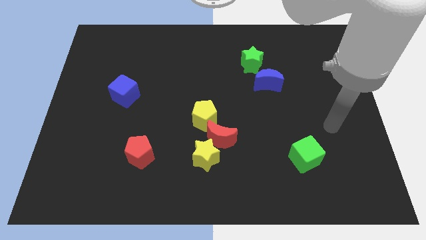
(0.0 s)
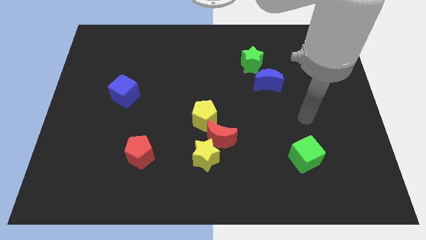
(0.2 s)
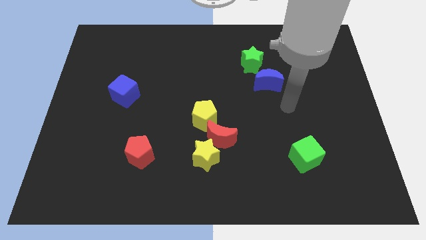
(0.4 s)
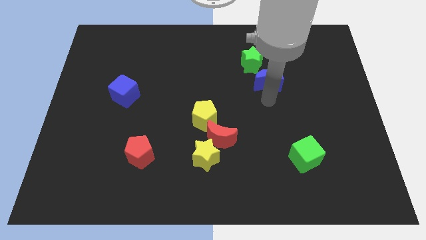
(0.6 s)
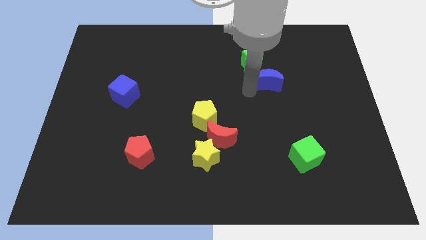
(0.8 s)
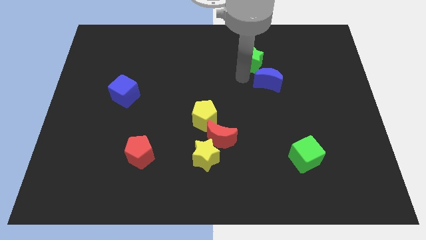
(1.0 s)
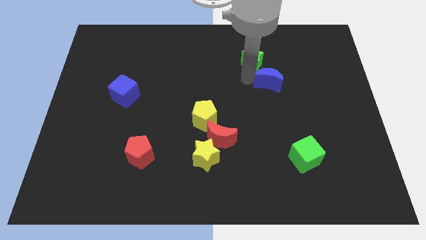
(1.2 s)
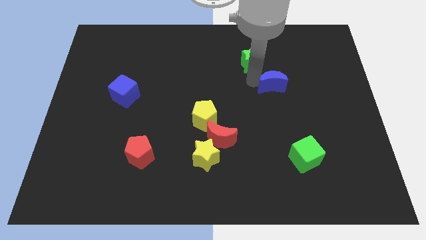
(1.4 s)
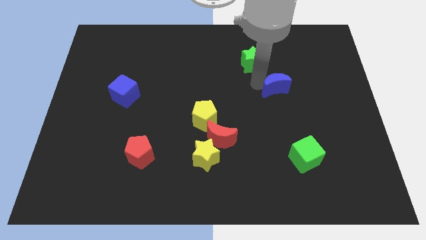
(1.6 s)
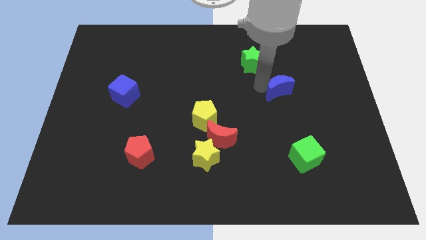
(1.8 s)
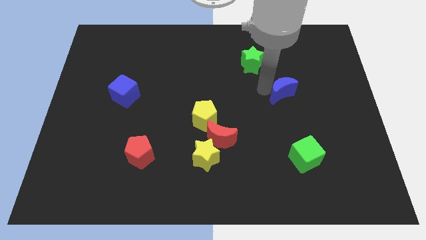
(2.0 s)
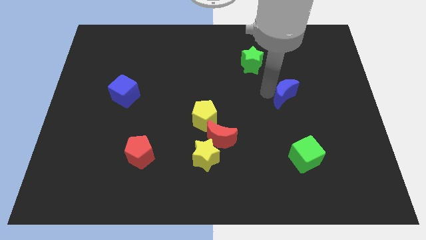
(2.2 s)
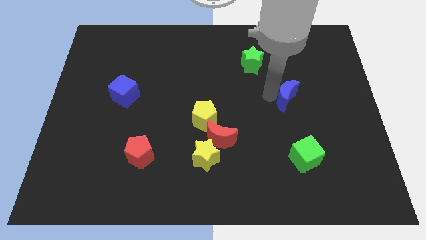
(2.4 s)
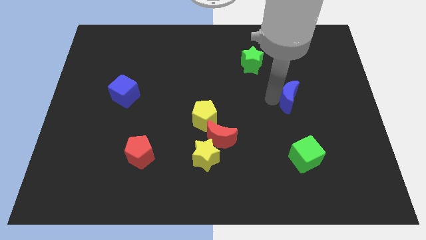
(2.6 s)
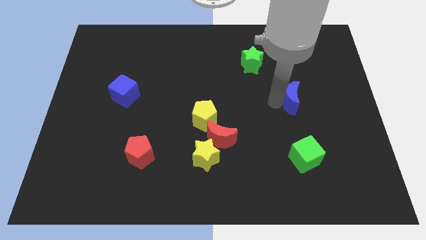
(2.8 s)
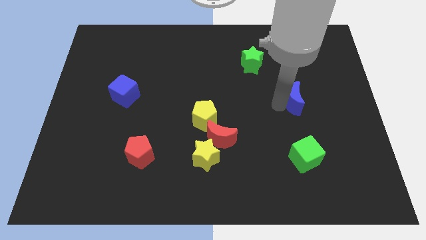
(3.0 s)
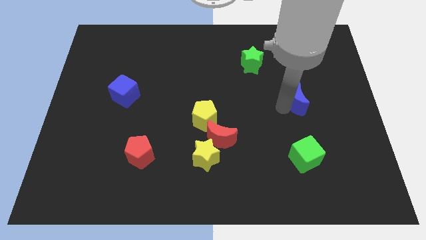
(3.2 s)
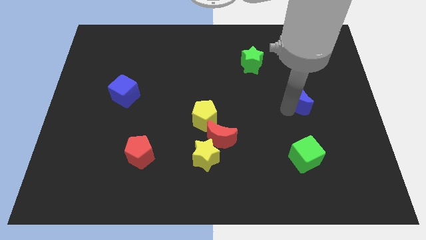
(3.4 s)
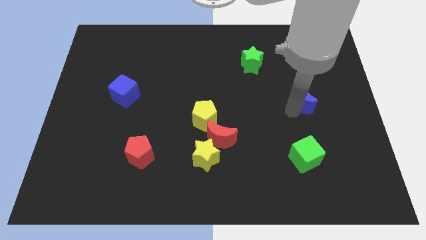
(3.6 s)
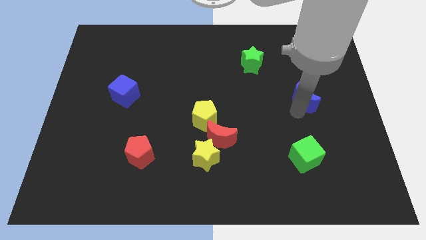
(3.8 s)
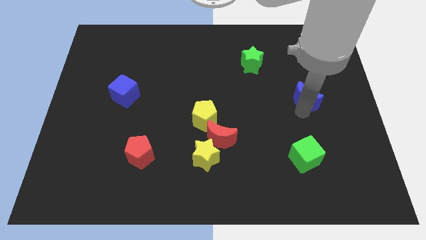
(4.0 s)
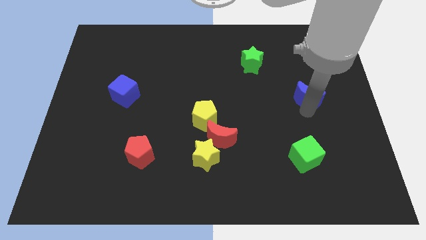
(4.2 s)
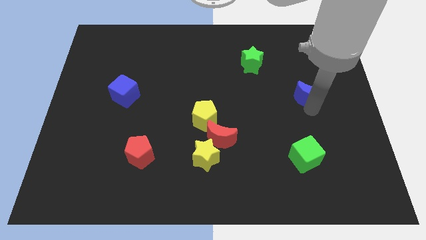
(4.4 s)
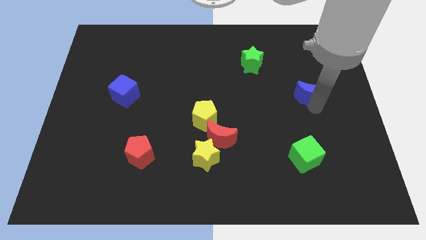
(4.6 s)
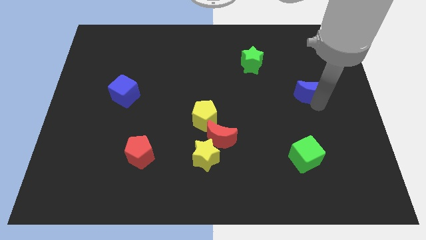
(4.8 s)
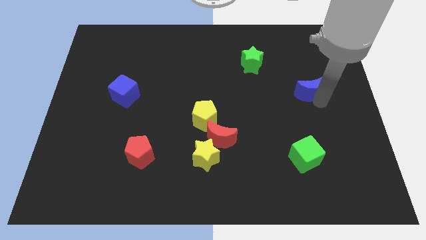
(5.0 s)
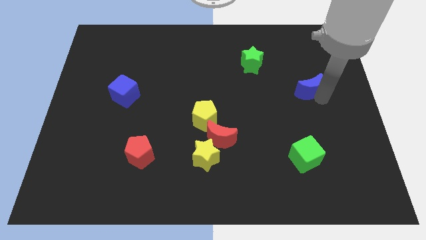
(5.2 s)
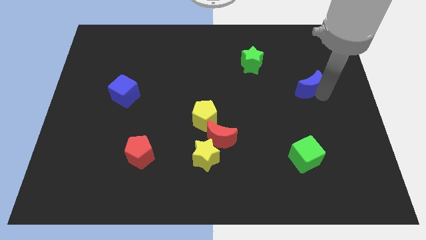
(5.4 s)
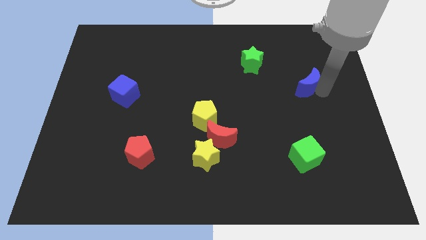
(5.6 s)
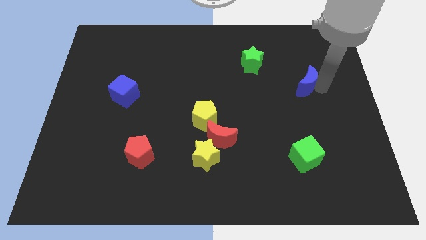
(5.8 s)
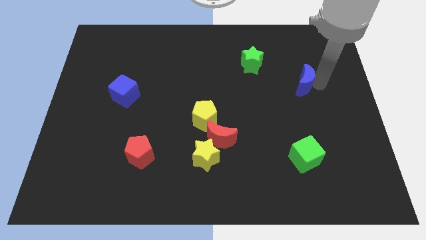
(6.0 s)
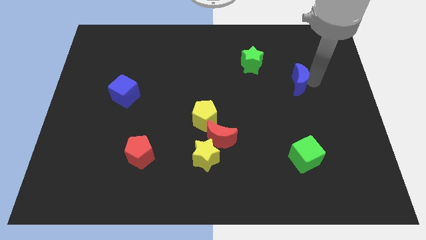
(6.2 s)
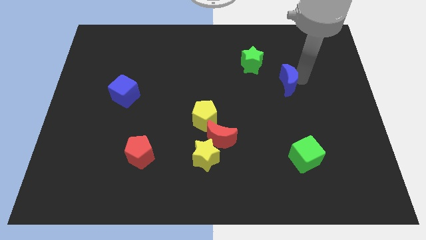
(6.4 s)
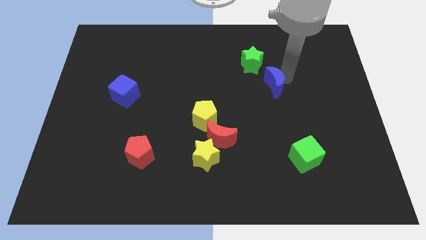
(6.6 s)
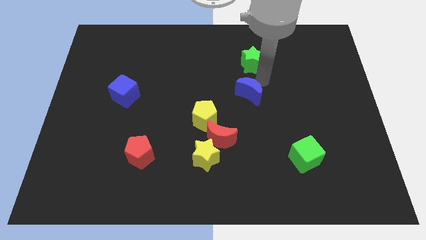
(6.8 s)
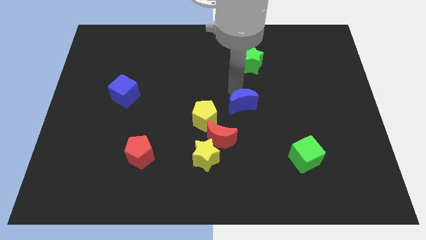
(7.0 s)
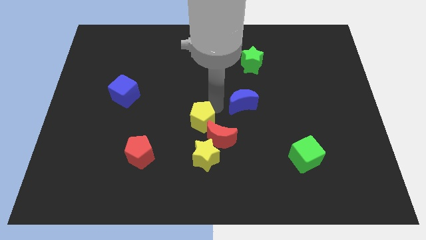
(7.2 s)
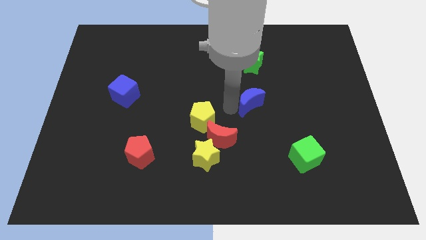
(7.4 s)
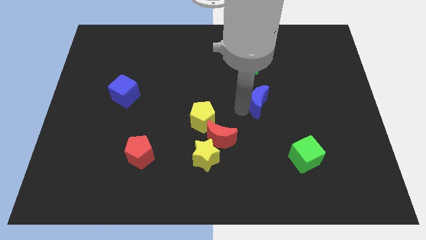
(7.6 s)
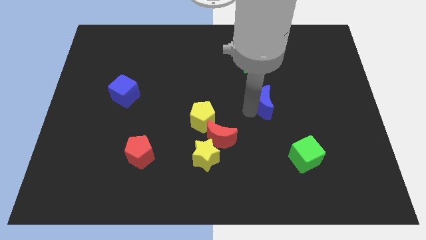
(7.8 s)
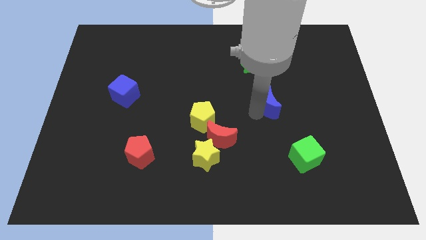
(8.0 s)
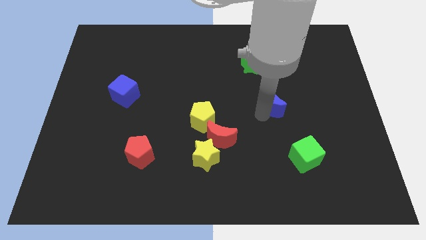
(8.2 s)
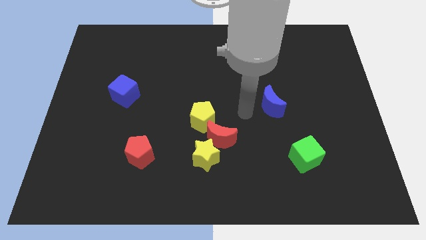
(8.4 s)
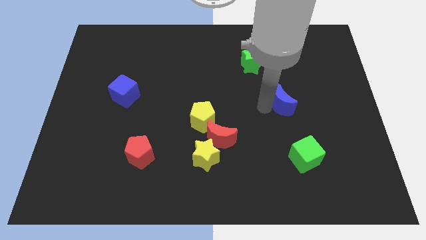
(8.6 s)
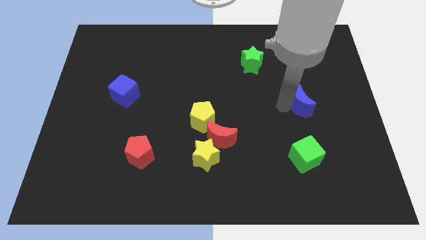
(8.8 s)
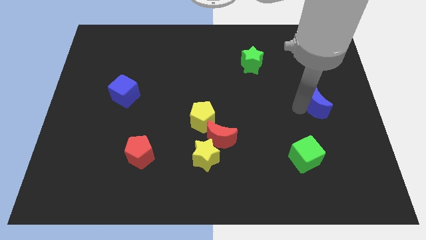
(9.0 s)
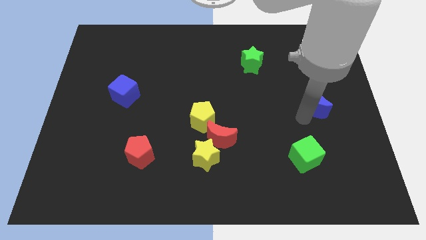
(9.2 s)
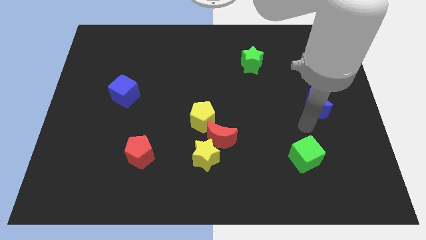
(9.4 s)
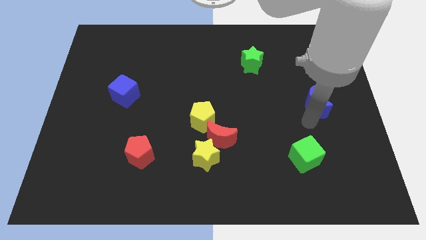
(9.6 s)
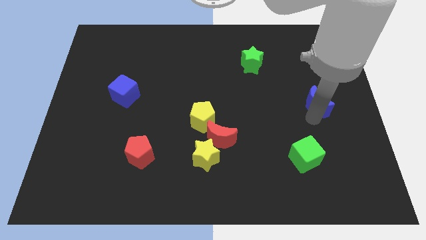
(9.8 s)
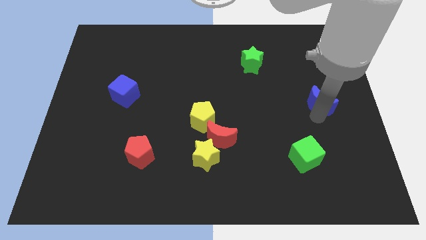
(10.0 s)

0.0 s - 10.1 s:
put the blue moon to the right side of the board

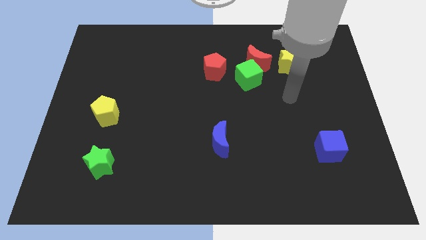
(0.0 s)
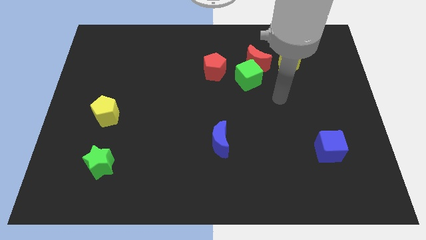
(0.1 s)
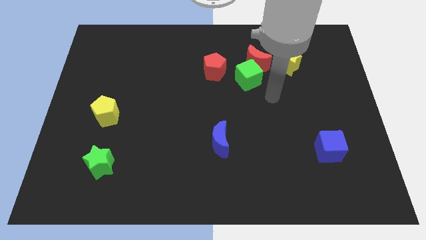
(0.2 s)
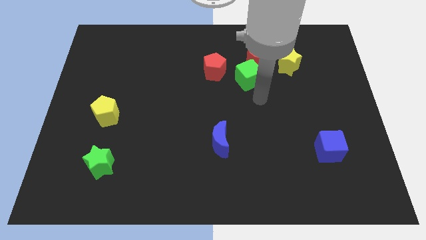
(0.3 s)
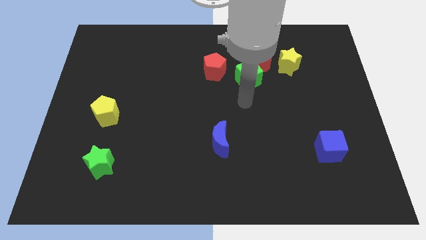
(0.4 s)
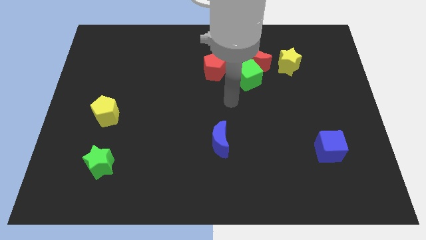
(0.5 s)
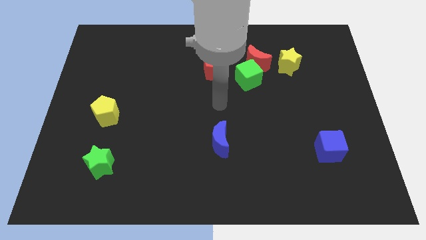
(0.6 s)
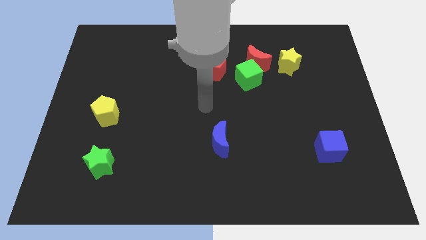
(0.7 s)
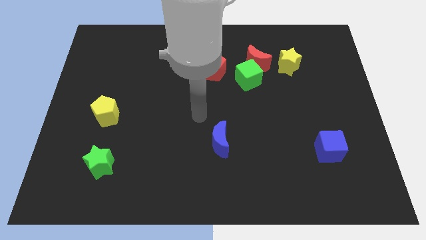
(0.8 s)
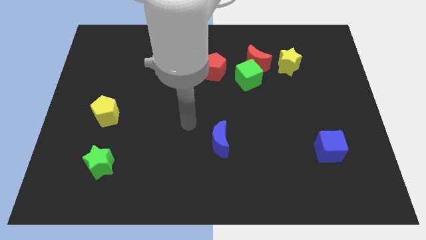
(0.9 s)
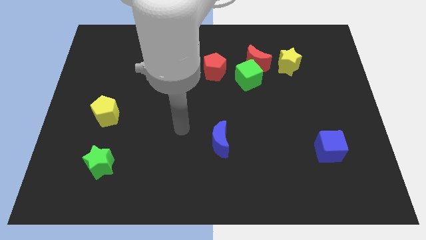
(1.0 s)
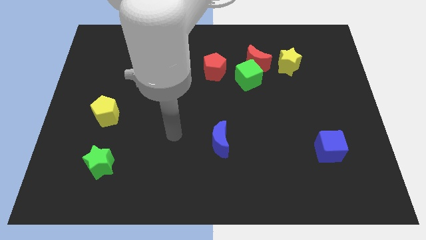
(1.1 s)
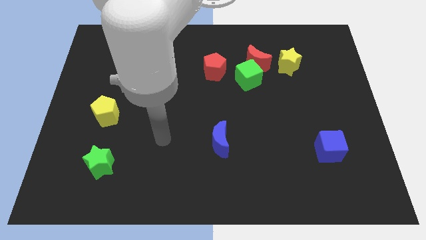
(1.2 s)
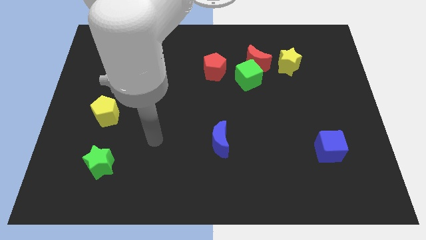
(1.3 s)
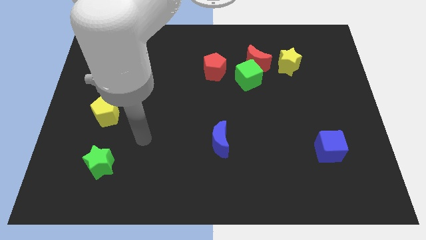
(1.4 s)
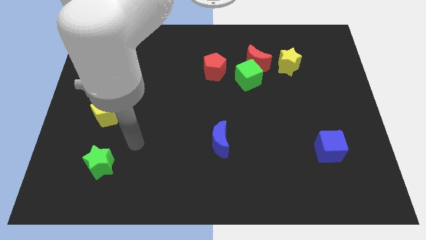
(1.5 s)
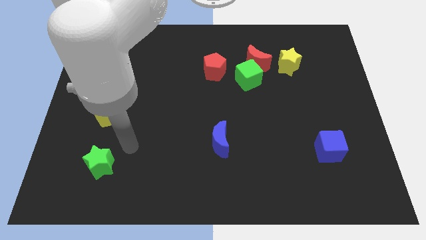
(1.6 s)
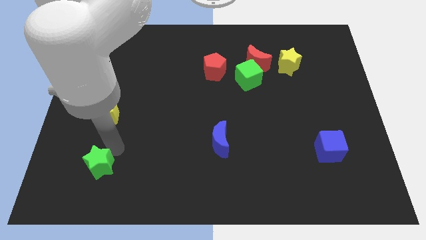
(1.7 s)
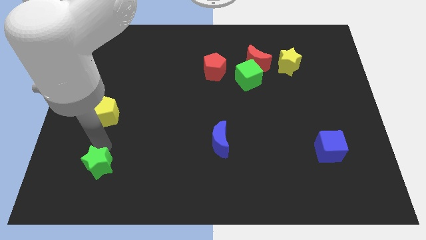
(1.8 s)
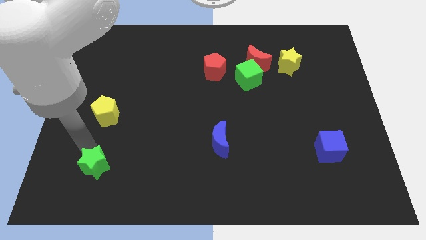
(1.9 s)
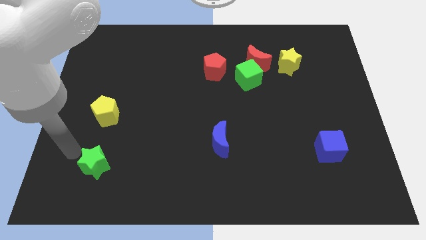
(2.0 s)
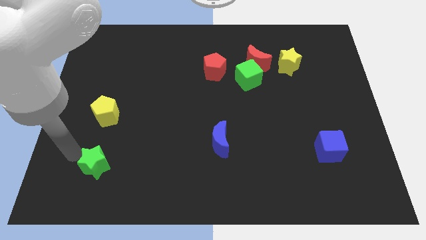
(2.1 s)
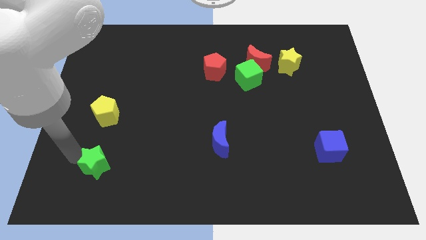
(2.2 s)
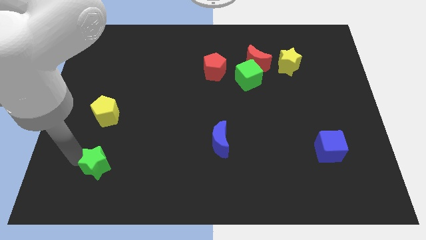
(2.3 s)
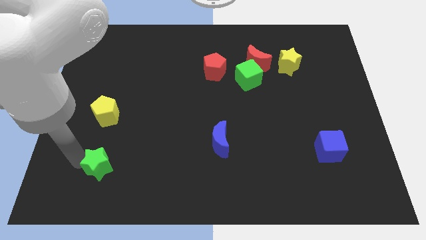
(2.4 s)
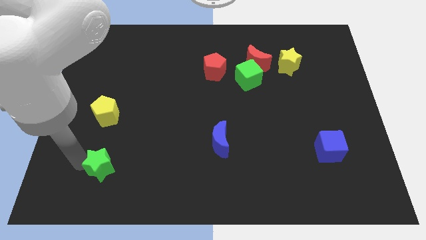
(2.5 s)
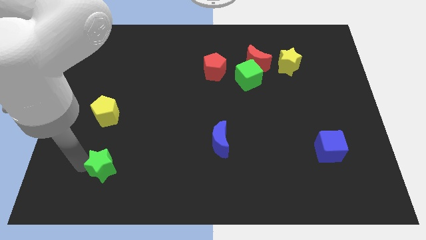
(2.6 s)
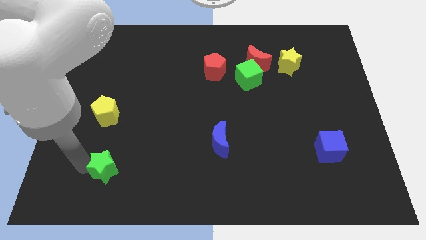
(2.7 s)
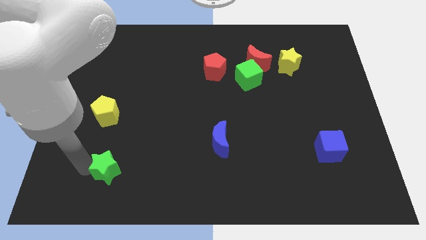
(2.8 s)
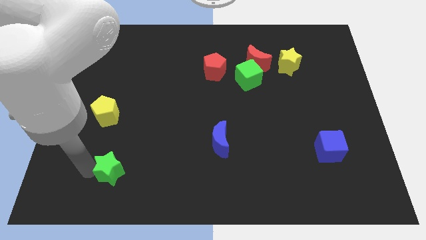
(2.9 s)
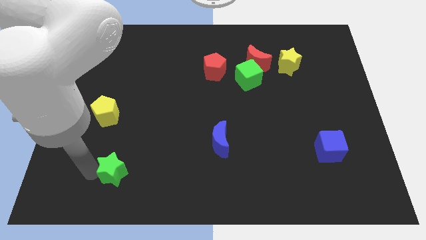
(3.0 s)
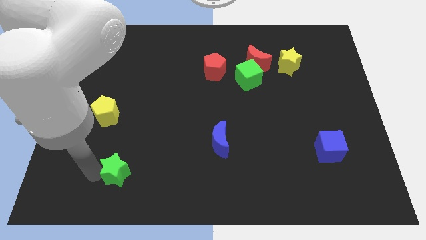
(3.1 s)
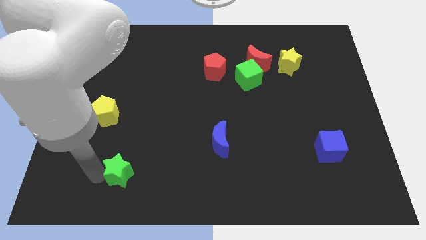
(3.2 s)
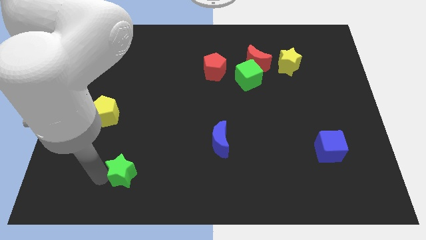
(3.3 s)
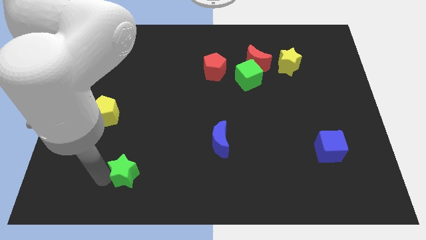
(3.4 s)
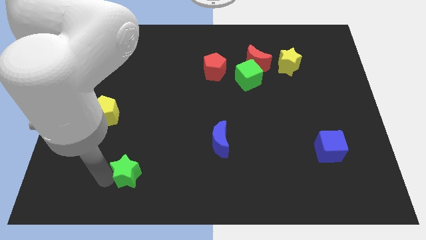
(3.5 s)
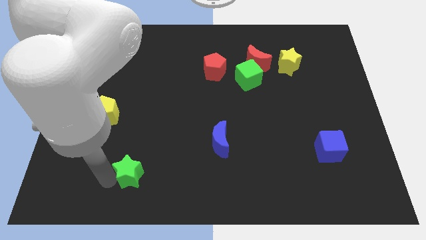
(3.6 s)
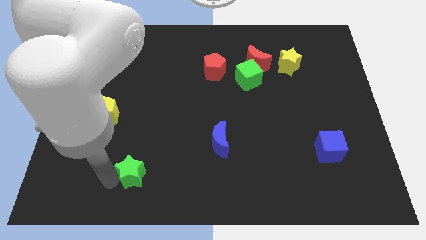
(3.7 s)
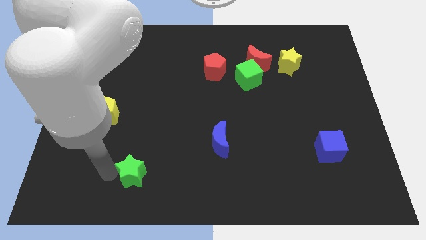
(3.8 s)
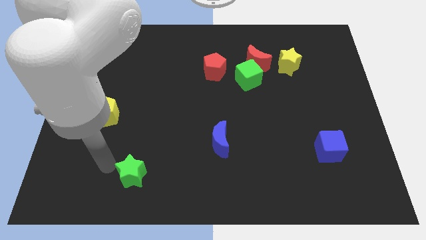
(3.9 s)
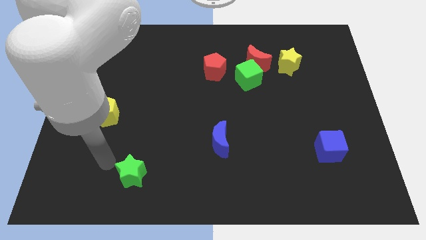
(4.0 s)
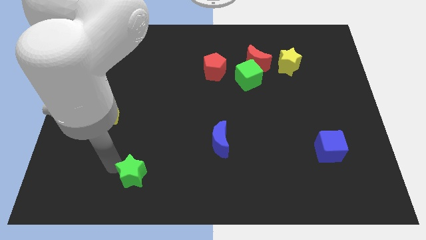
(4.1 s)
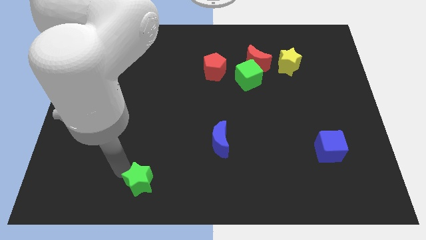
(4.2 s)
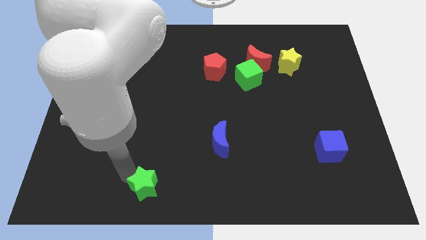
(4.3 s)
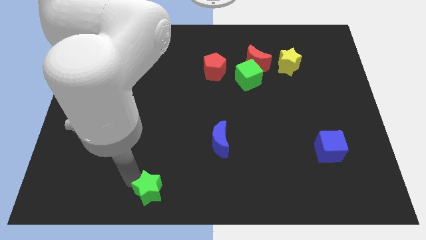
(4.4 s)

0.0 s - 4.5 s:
put the green star to the bottom
